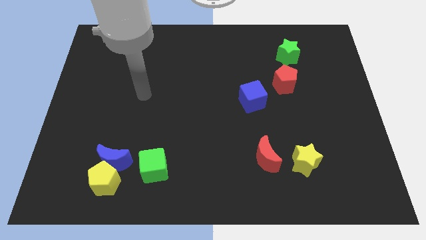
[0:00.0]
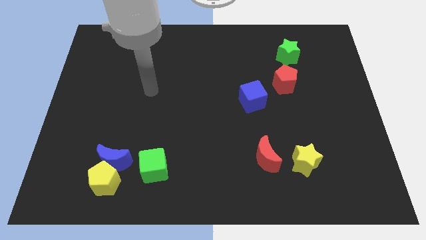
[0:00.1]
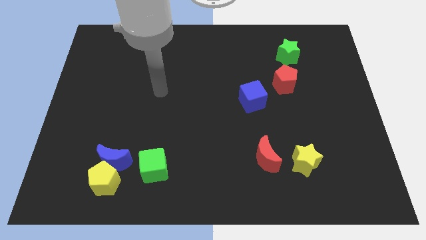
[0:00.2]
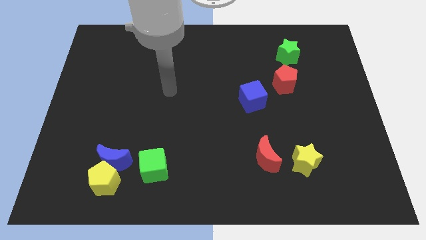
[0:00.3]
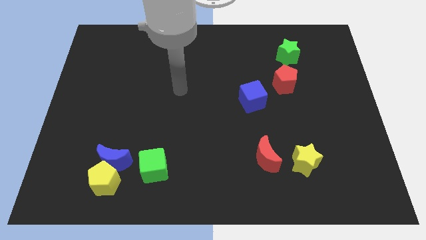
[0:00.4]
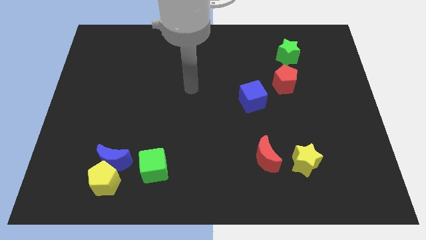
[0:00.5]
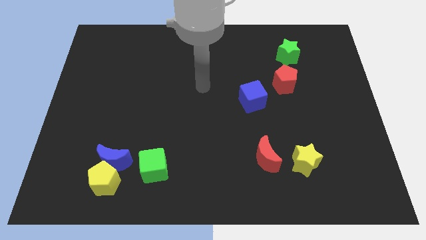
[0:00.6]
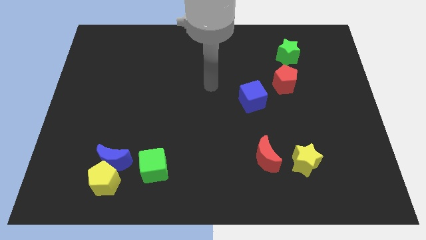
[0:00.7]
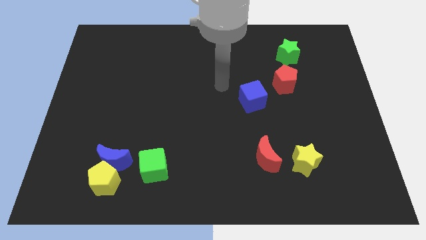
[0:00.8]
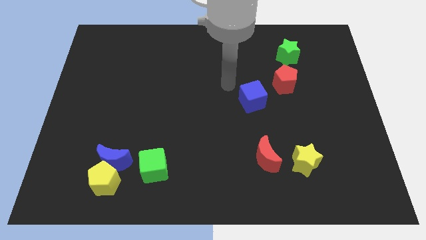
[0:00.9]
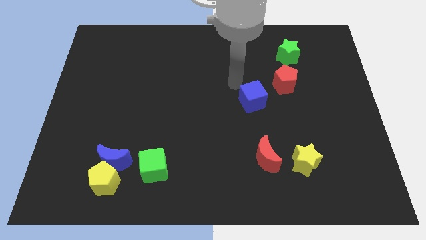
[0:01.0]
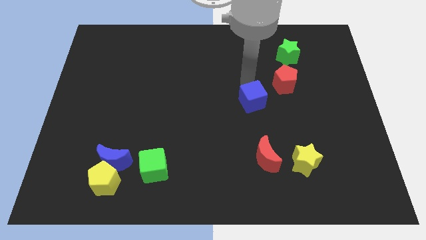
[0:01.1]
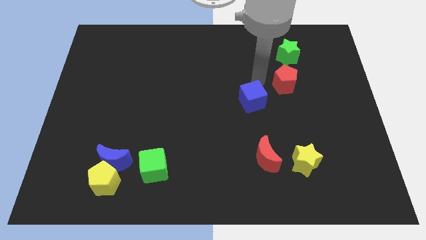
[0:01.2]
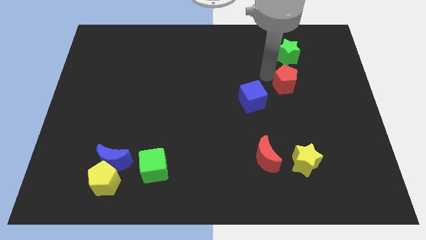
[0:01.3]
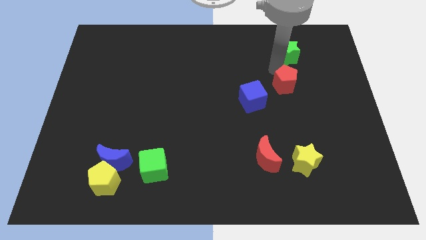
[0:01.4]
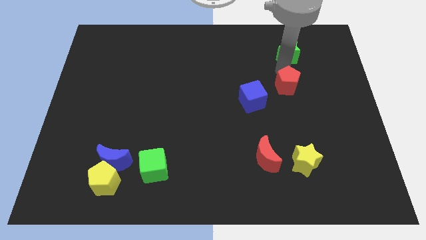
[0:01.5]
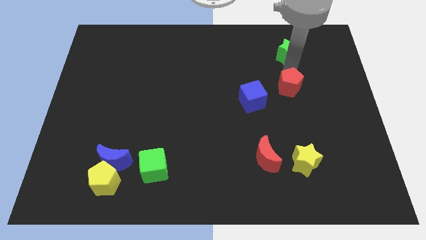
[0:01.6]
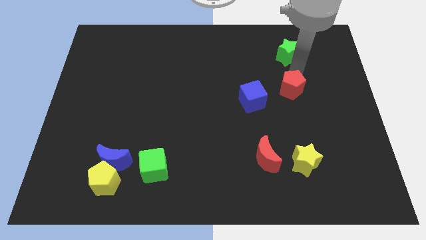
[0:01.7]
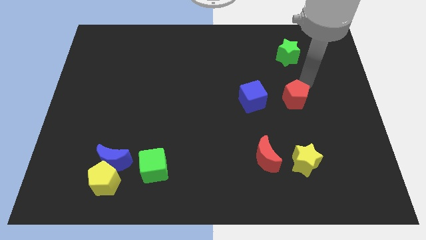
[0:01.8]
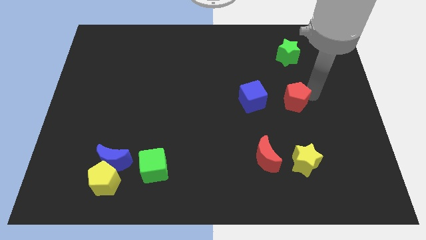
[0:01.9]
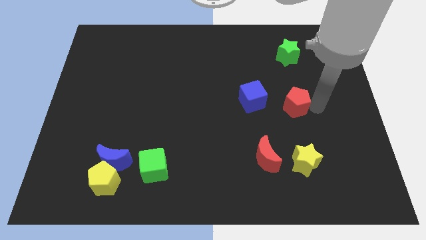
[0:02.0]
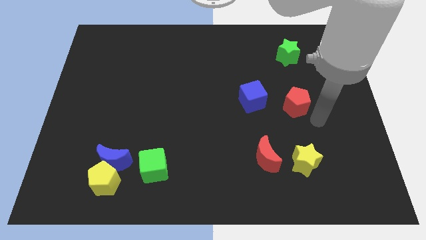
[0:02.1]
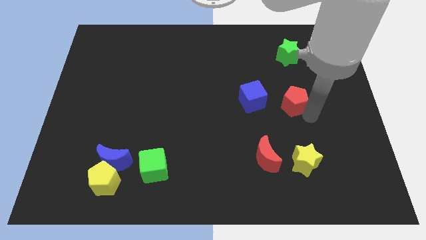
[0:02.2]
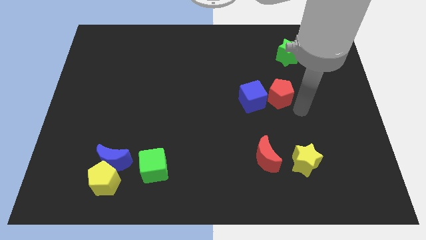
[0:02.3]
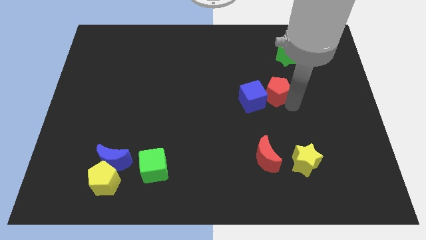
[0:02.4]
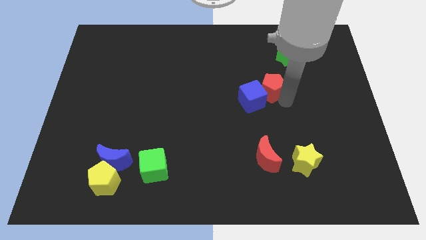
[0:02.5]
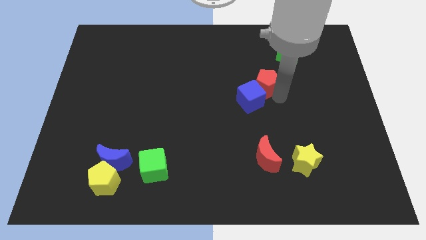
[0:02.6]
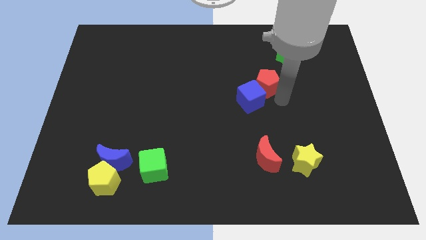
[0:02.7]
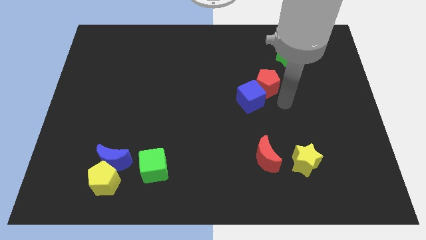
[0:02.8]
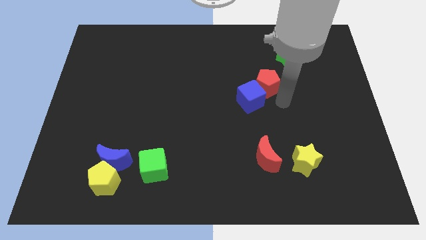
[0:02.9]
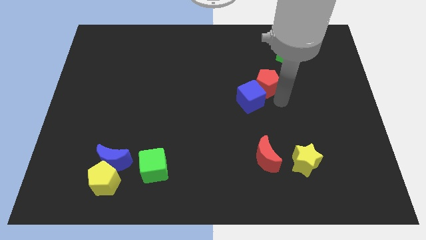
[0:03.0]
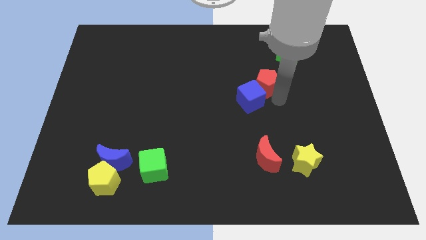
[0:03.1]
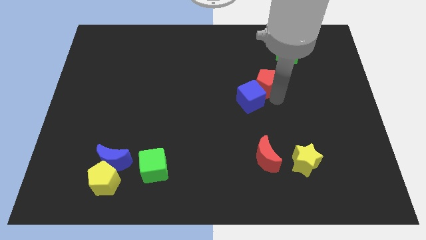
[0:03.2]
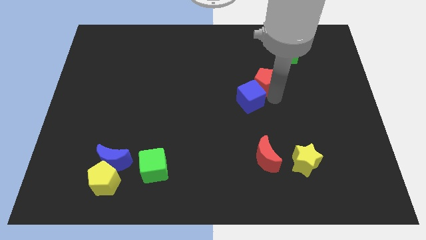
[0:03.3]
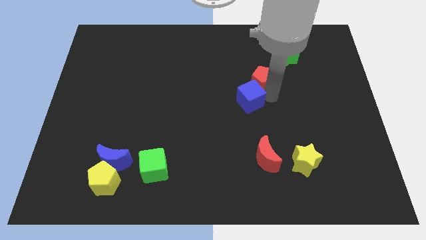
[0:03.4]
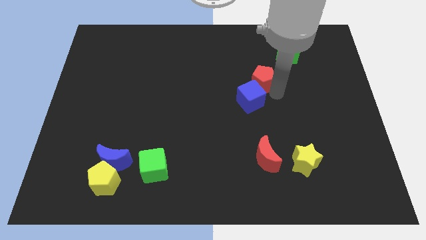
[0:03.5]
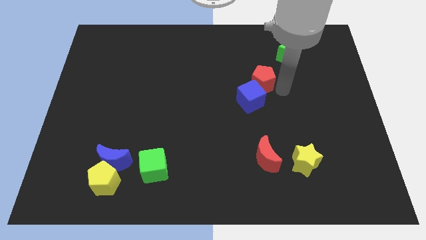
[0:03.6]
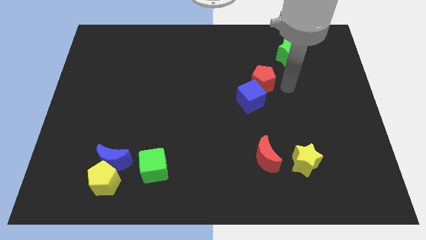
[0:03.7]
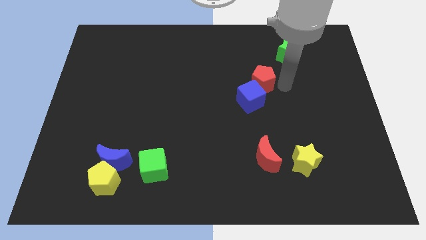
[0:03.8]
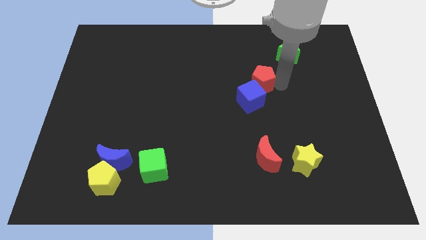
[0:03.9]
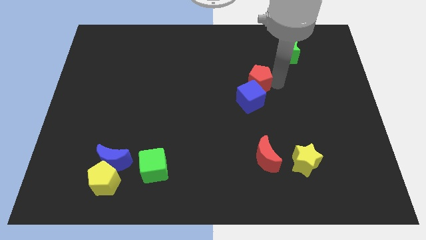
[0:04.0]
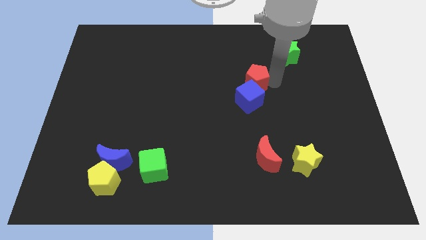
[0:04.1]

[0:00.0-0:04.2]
push the red pentagon a little left

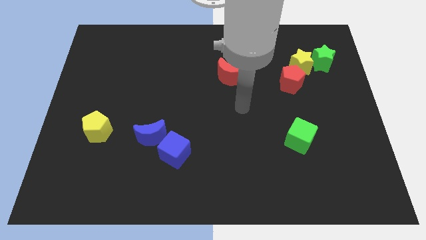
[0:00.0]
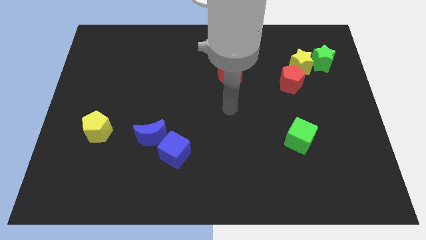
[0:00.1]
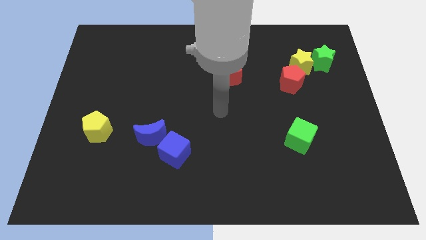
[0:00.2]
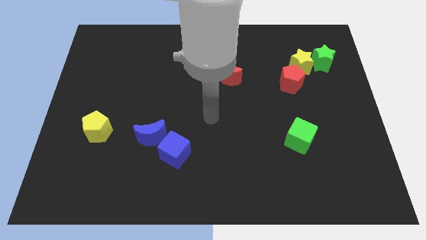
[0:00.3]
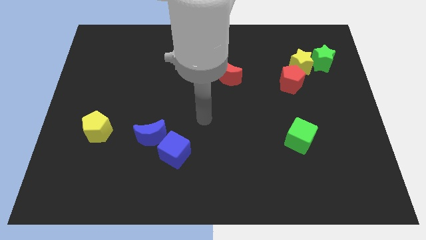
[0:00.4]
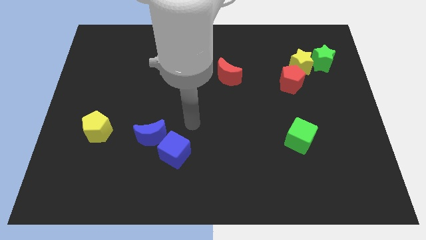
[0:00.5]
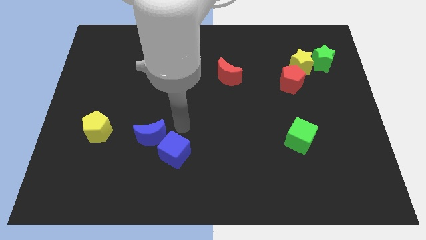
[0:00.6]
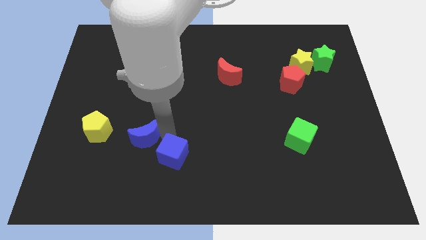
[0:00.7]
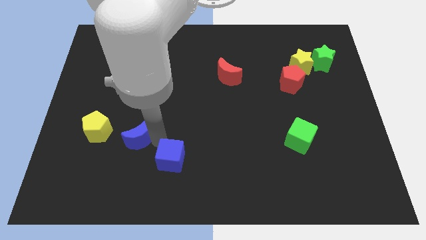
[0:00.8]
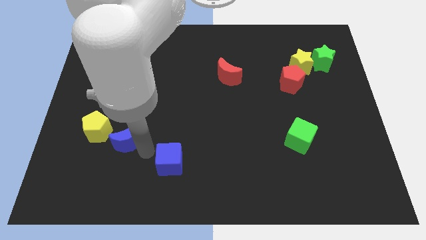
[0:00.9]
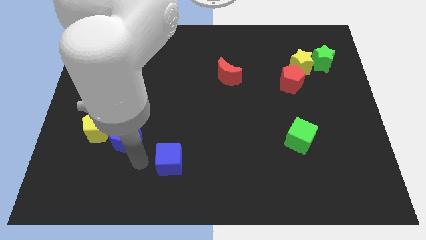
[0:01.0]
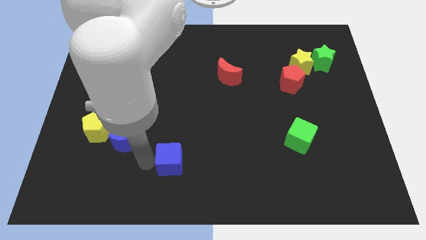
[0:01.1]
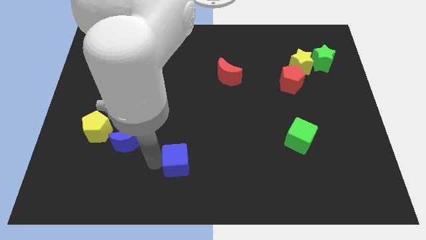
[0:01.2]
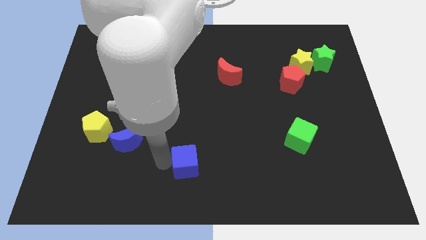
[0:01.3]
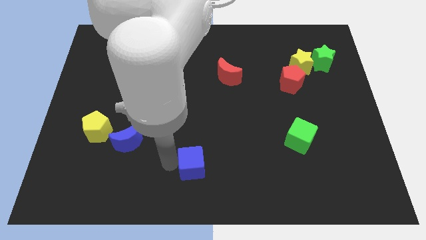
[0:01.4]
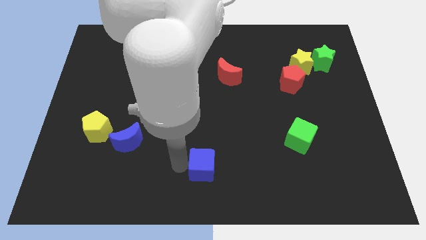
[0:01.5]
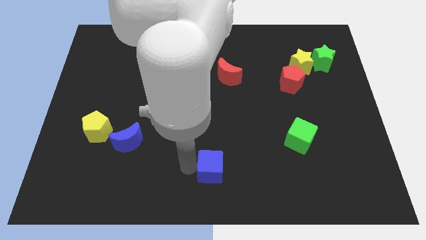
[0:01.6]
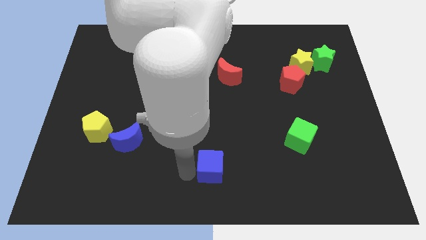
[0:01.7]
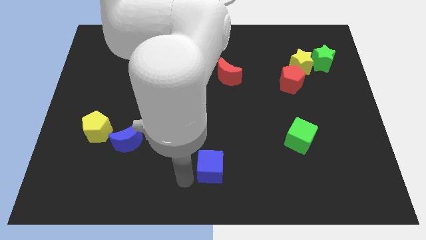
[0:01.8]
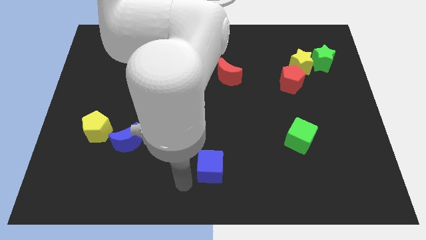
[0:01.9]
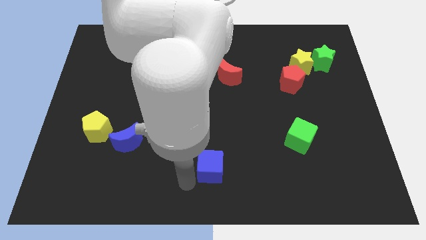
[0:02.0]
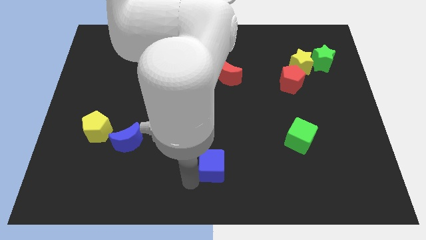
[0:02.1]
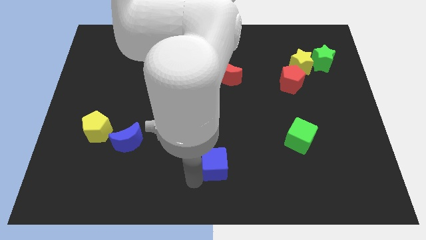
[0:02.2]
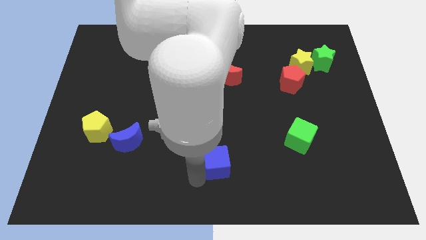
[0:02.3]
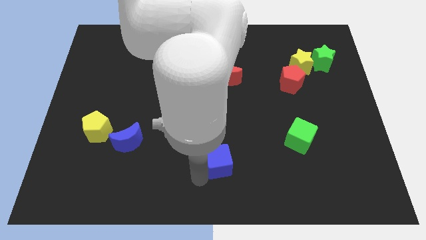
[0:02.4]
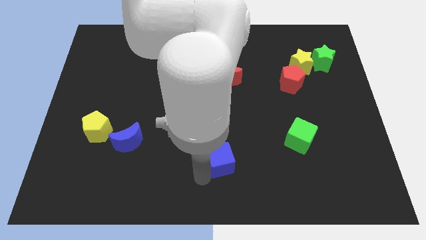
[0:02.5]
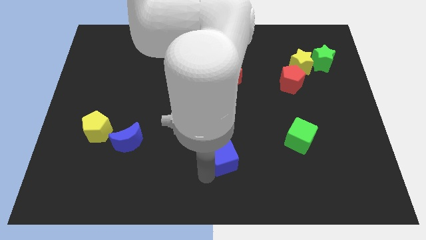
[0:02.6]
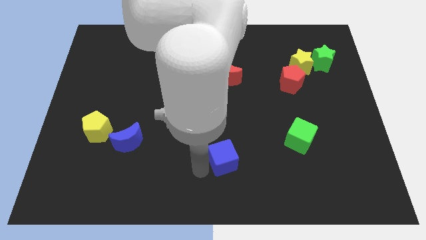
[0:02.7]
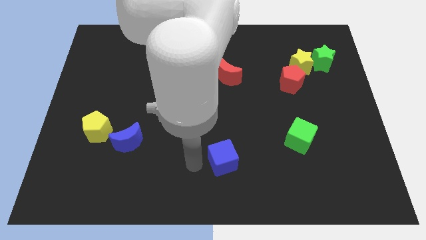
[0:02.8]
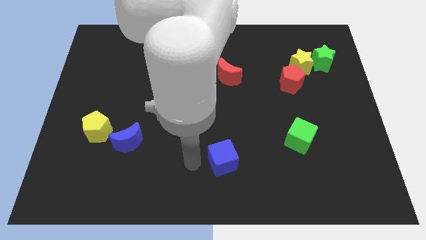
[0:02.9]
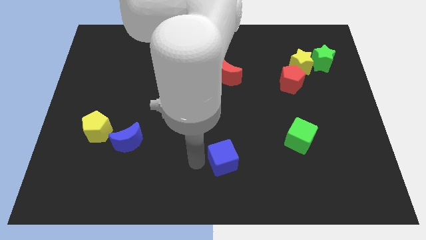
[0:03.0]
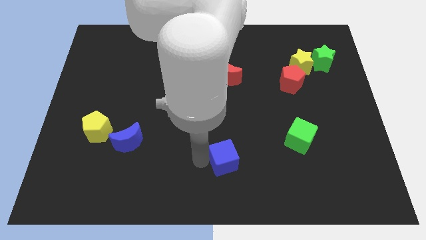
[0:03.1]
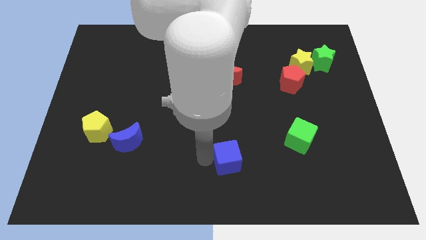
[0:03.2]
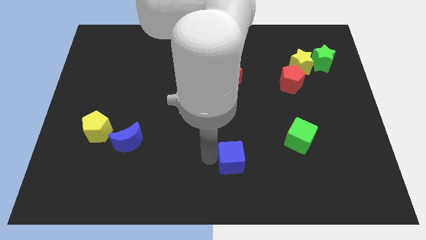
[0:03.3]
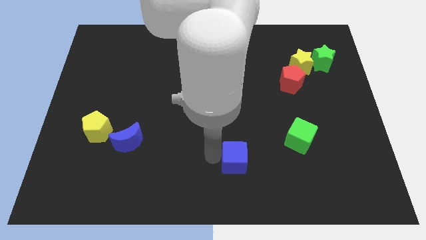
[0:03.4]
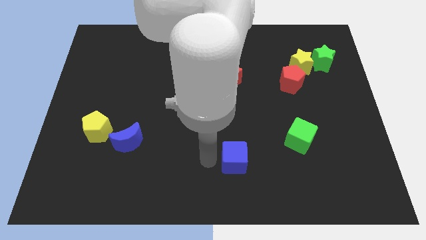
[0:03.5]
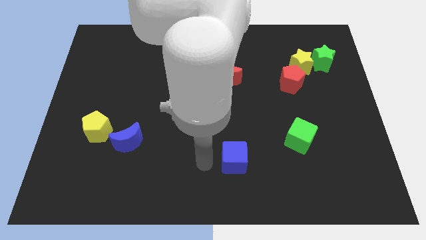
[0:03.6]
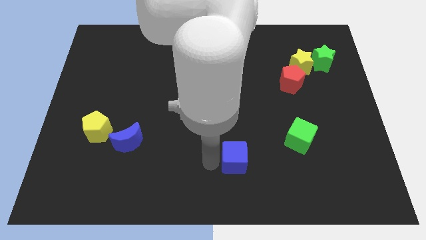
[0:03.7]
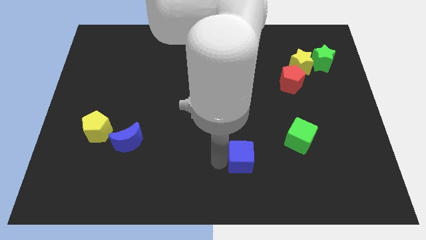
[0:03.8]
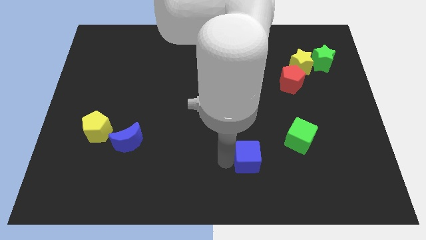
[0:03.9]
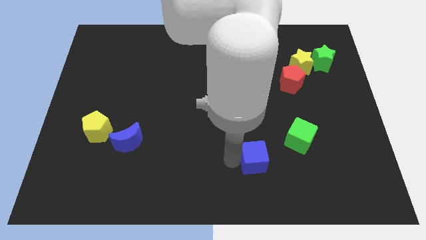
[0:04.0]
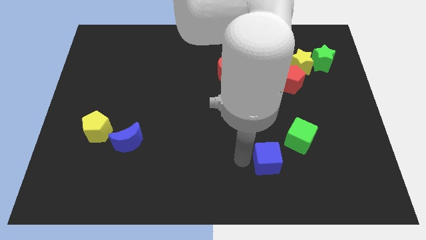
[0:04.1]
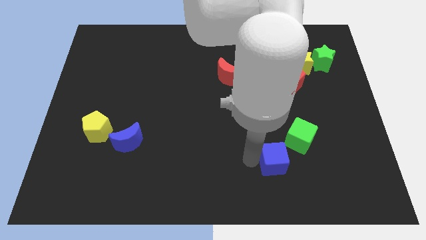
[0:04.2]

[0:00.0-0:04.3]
slide the blue cube to the right
